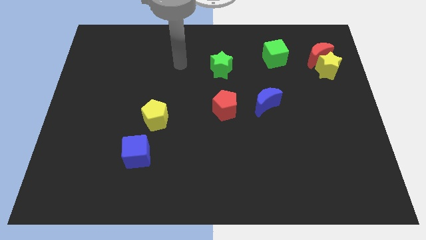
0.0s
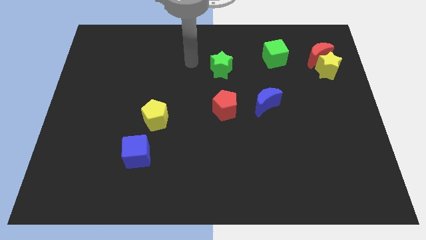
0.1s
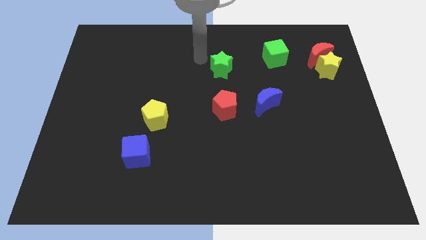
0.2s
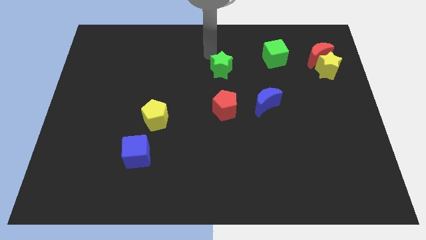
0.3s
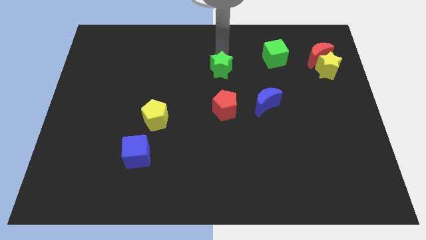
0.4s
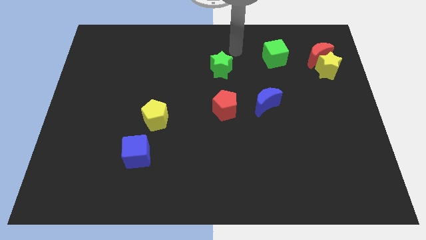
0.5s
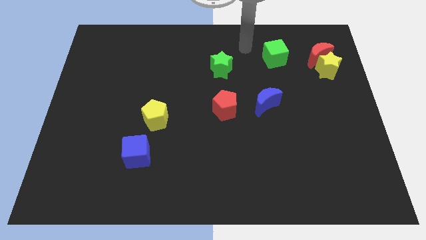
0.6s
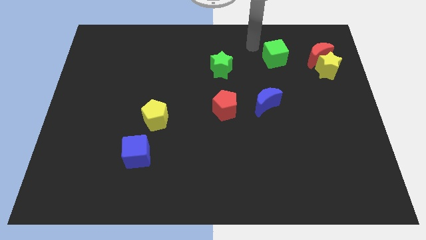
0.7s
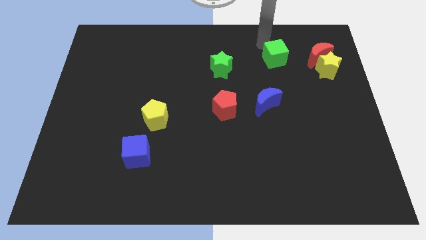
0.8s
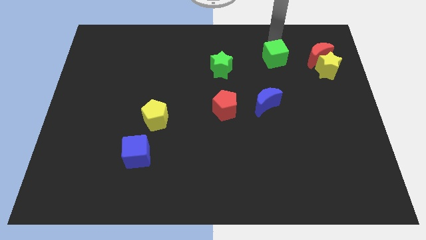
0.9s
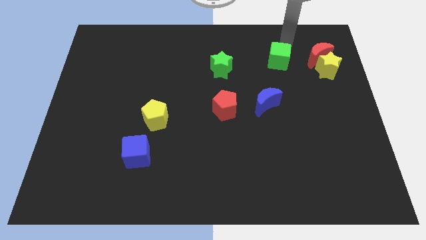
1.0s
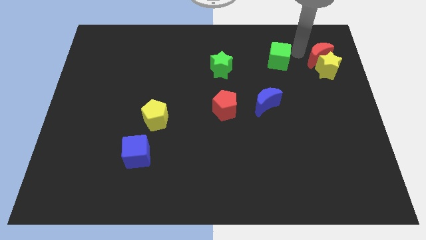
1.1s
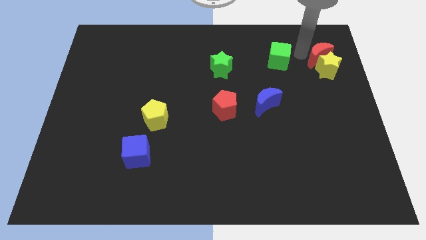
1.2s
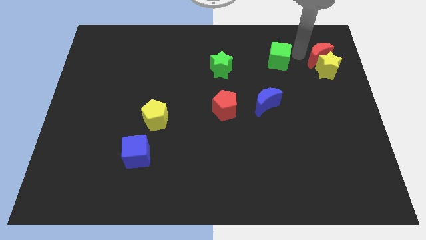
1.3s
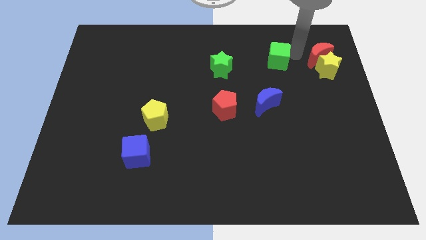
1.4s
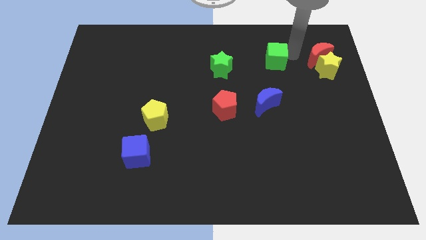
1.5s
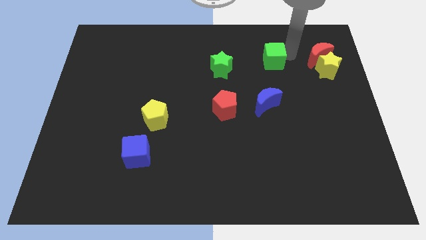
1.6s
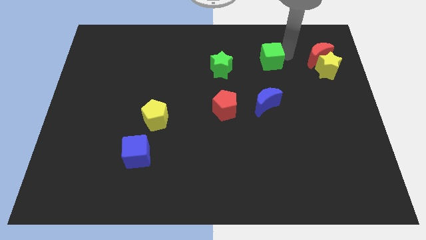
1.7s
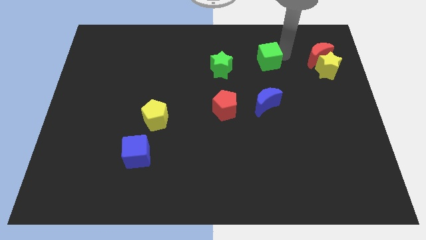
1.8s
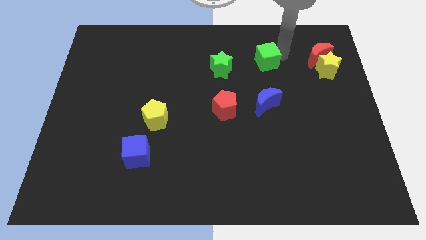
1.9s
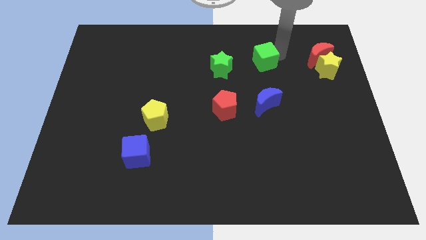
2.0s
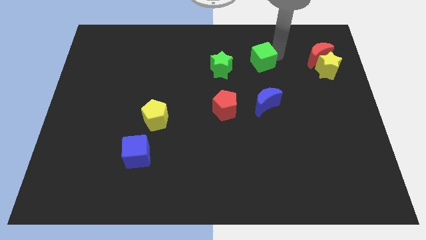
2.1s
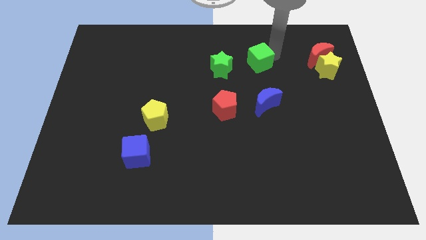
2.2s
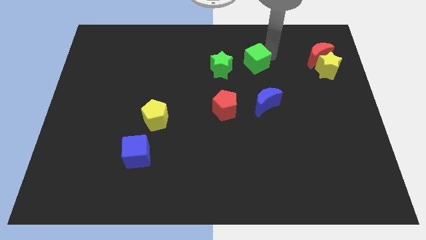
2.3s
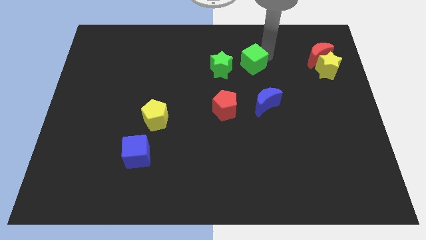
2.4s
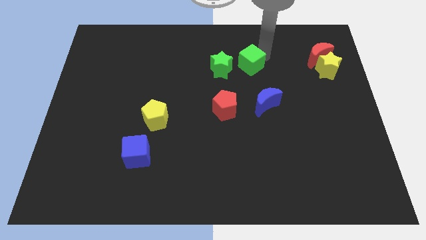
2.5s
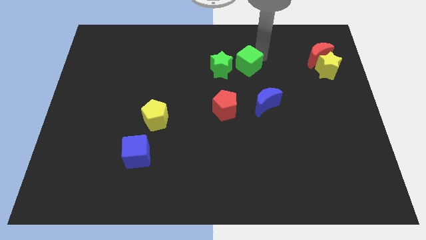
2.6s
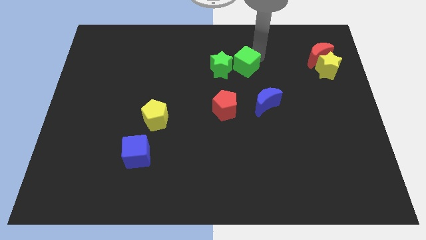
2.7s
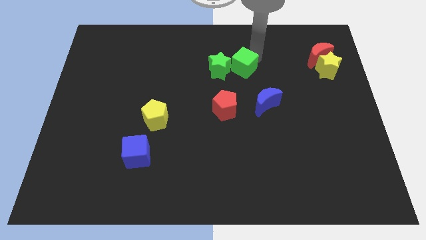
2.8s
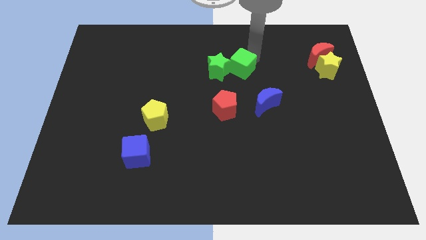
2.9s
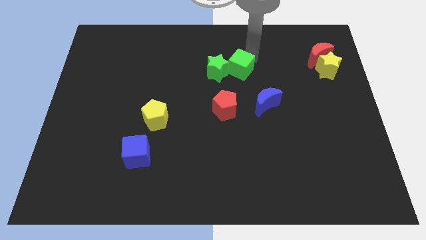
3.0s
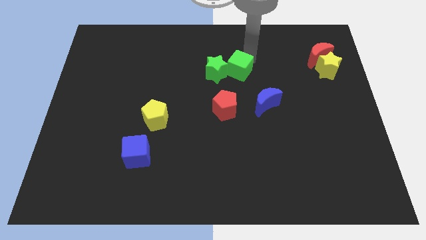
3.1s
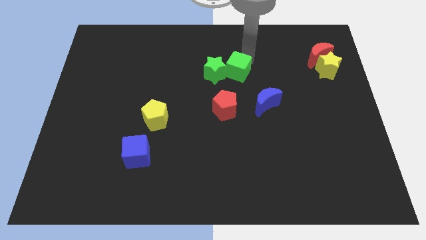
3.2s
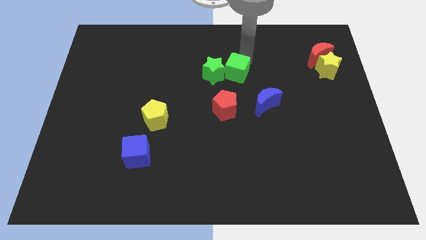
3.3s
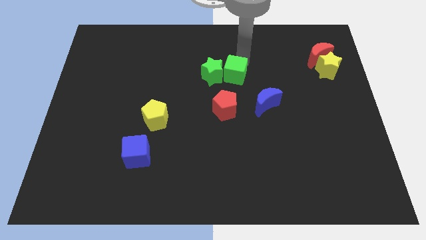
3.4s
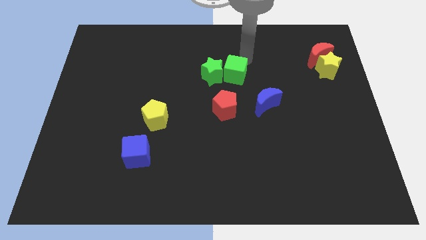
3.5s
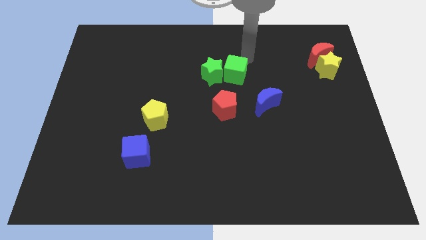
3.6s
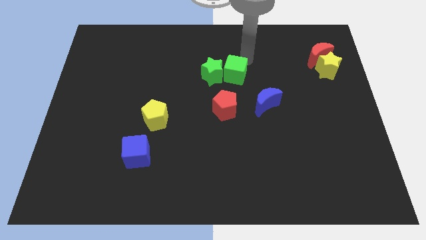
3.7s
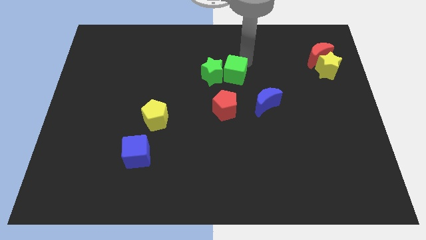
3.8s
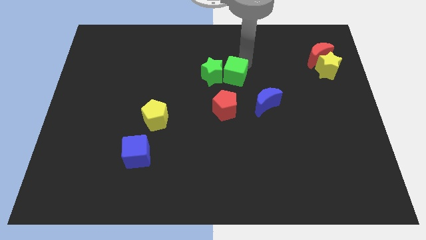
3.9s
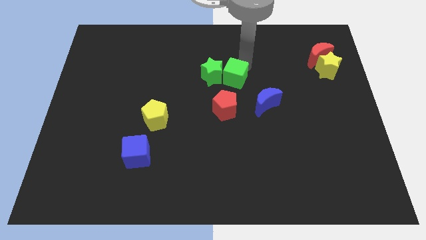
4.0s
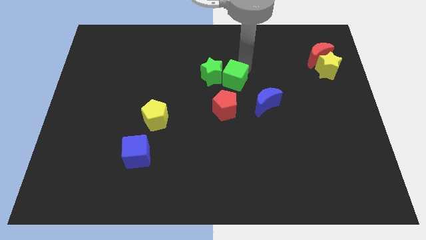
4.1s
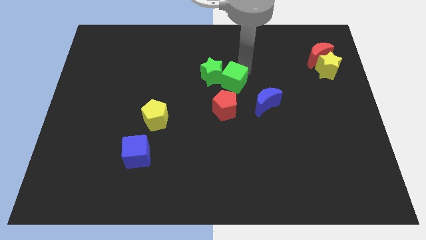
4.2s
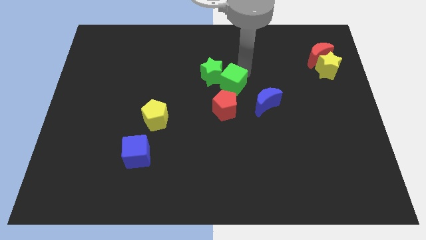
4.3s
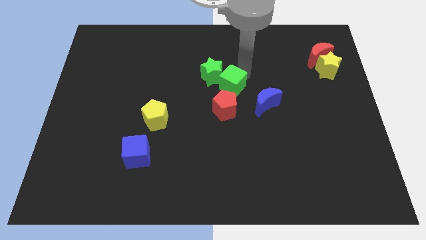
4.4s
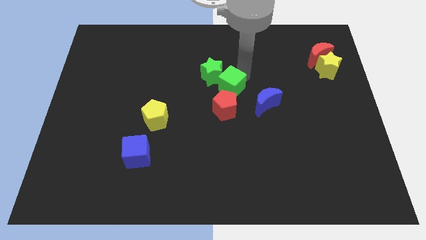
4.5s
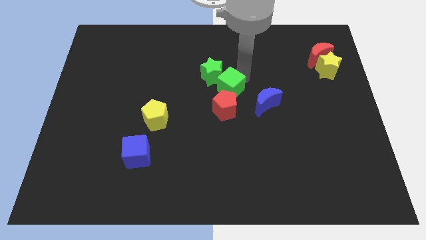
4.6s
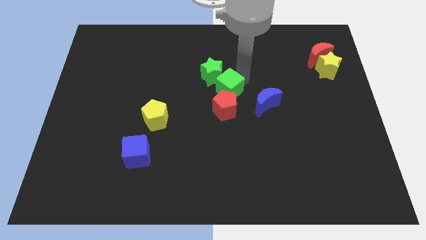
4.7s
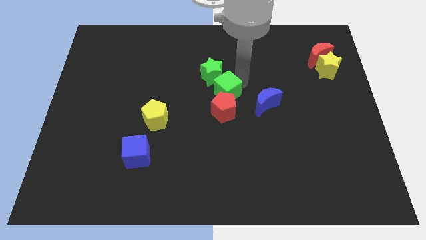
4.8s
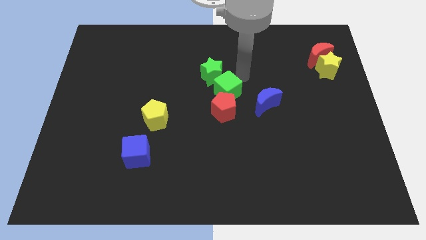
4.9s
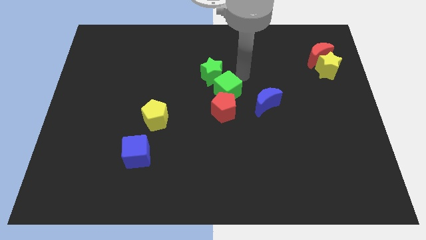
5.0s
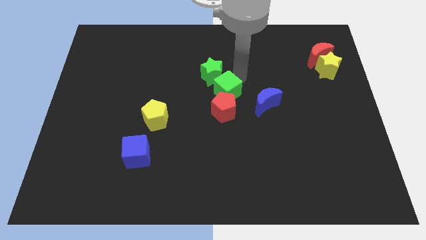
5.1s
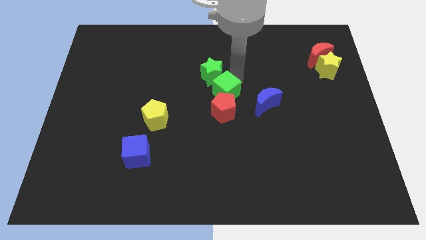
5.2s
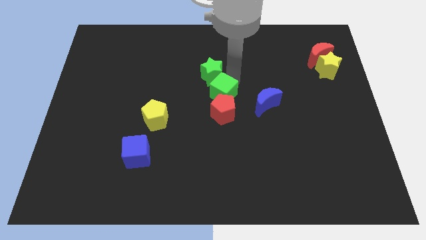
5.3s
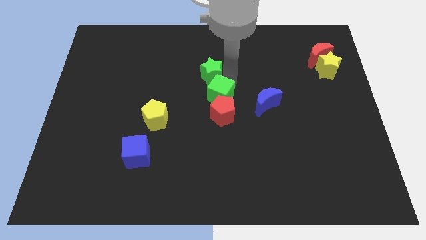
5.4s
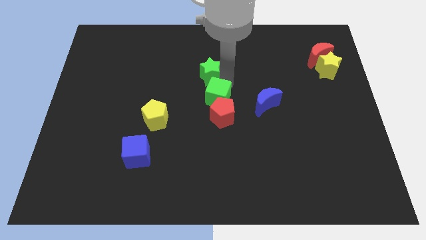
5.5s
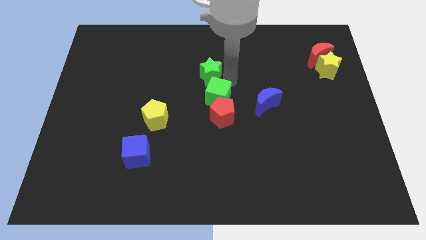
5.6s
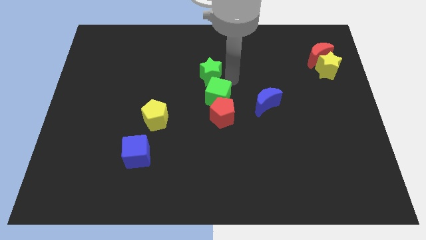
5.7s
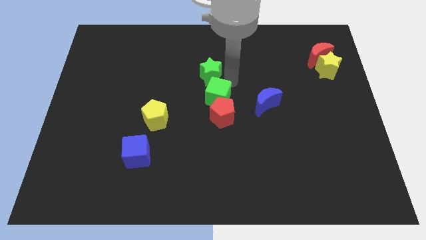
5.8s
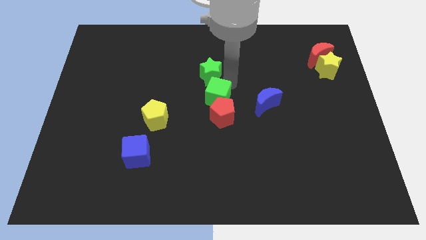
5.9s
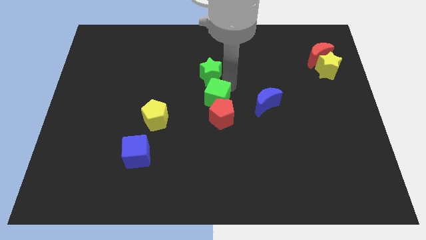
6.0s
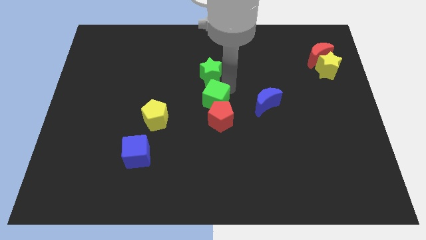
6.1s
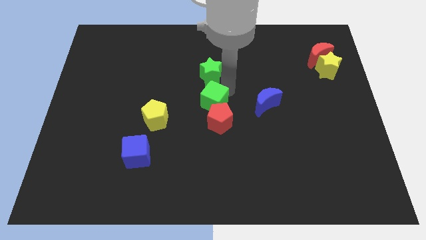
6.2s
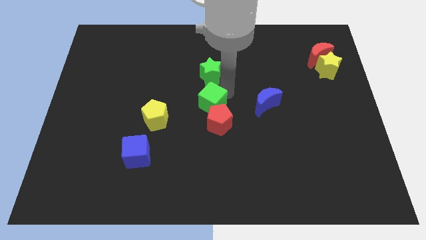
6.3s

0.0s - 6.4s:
push the green cube to the right of the yellow pentagon

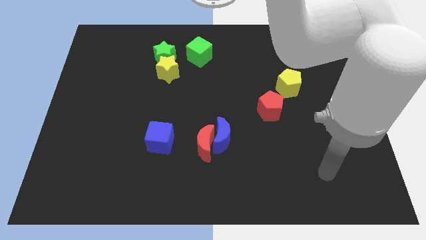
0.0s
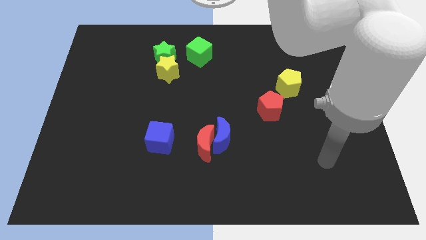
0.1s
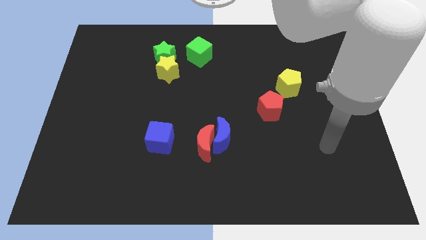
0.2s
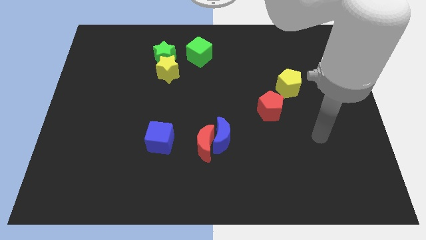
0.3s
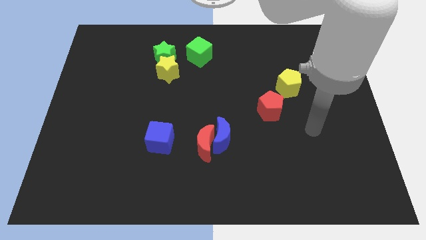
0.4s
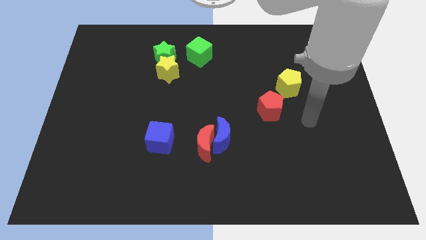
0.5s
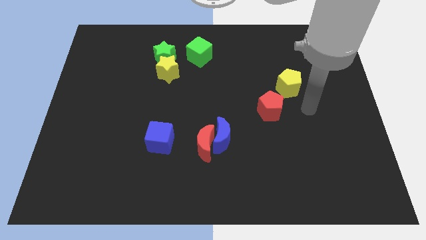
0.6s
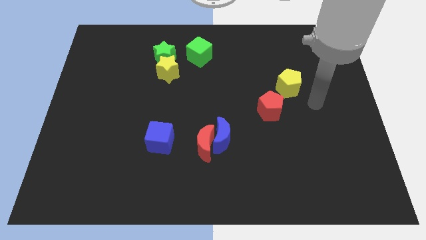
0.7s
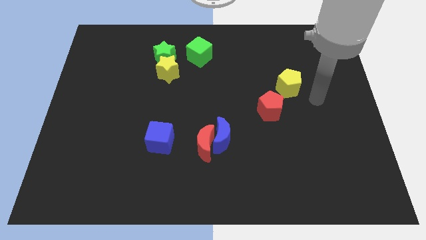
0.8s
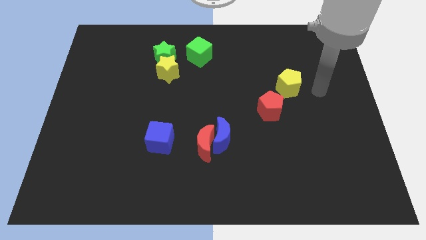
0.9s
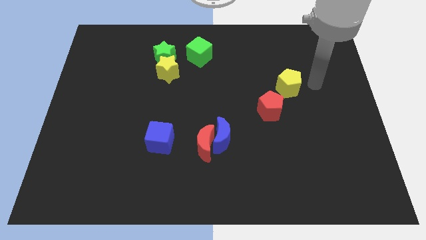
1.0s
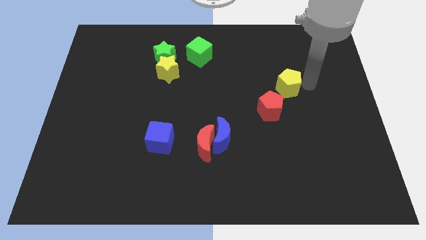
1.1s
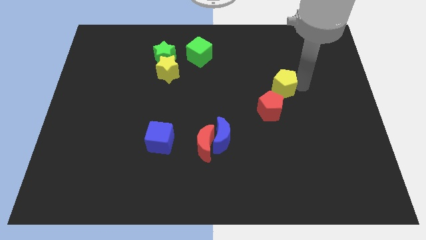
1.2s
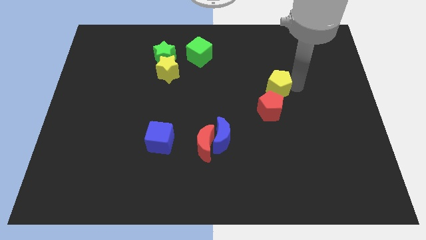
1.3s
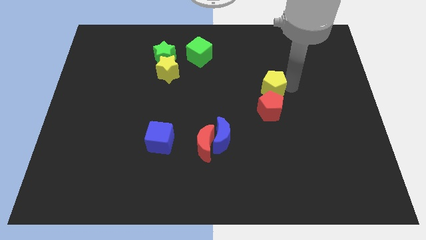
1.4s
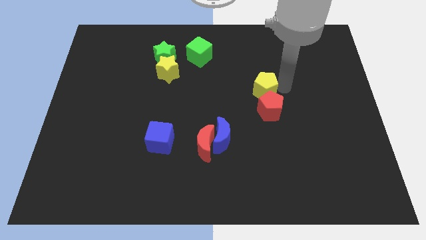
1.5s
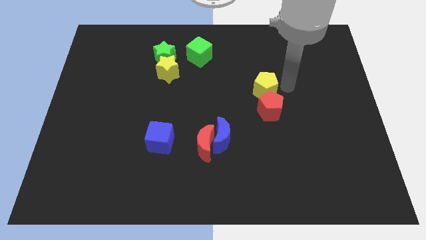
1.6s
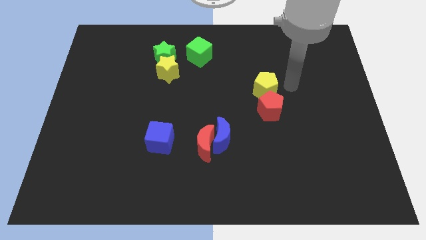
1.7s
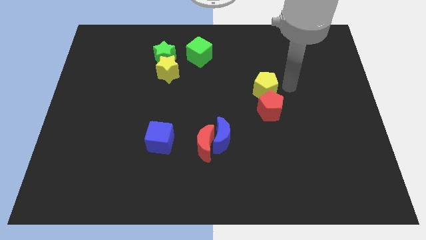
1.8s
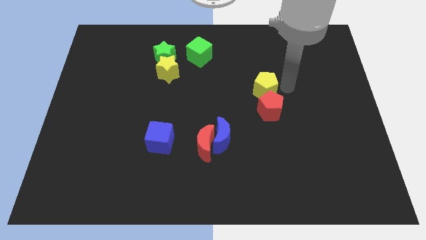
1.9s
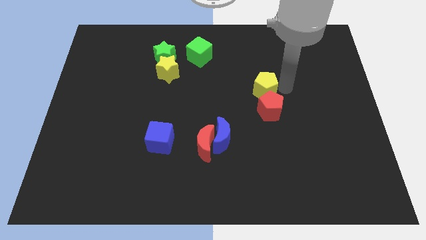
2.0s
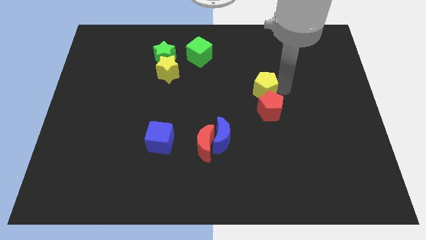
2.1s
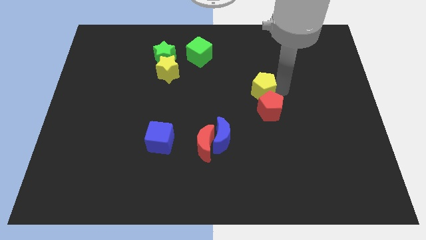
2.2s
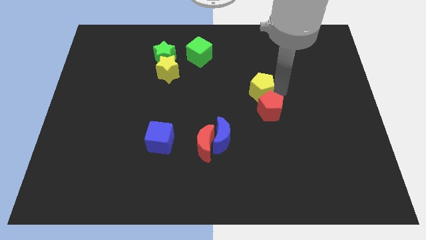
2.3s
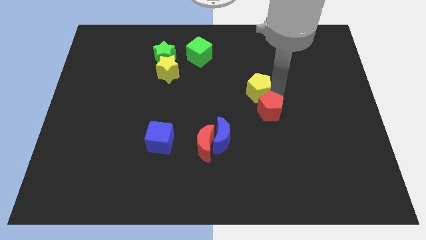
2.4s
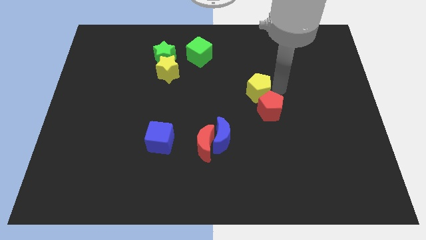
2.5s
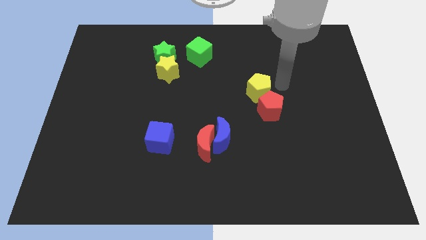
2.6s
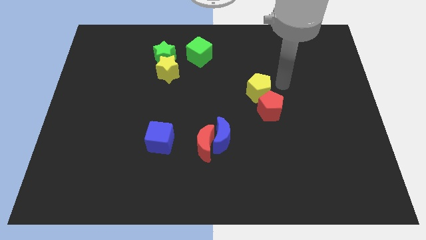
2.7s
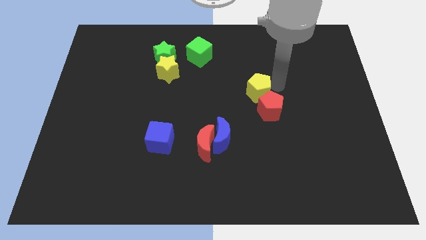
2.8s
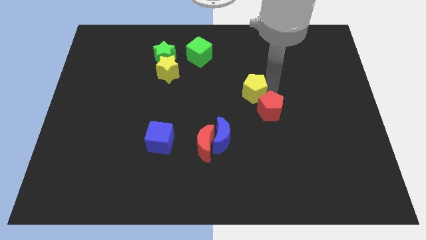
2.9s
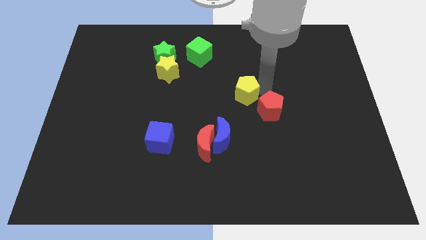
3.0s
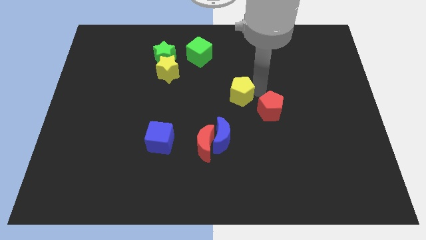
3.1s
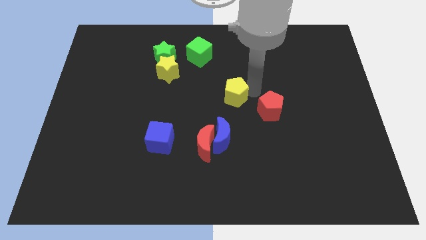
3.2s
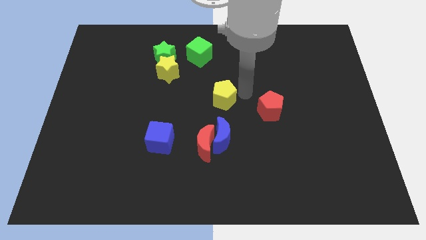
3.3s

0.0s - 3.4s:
put the yellow pentagon to the top side of the red moon
